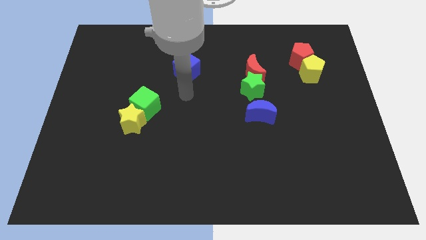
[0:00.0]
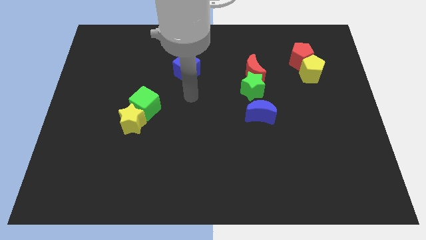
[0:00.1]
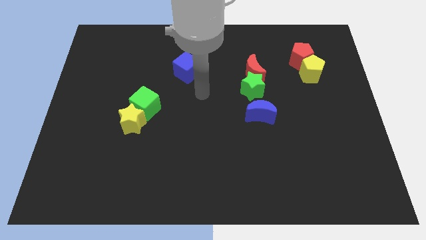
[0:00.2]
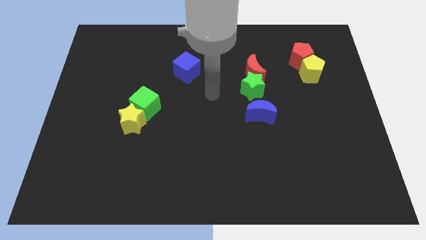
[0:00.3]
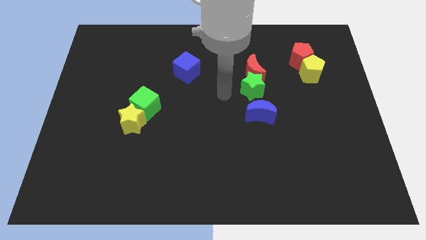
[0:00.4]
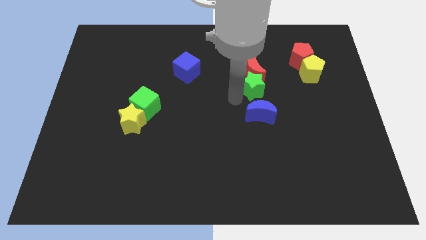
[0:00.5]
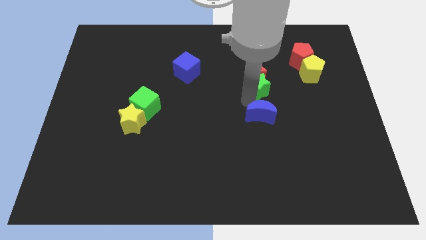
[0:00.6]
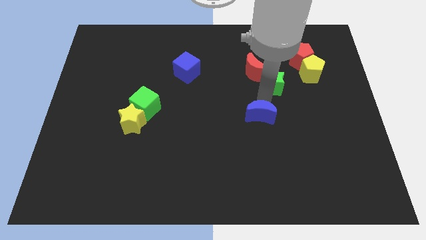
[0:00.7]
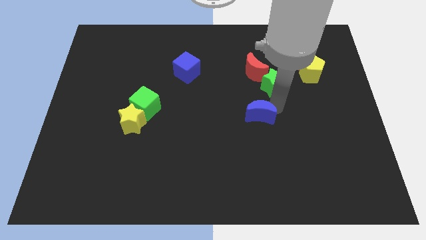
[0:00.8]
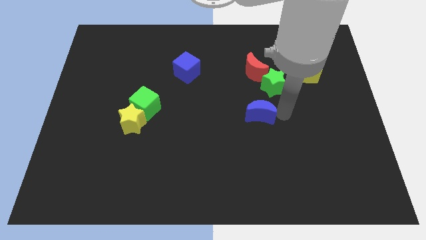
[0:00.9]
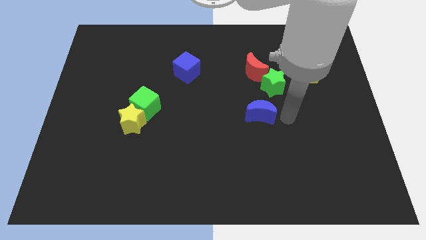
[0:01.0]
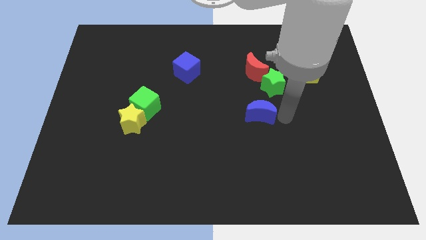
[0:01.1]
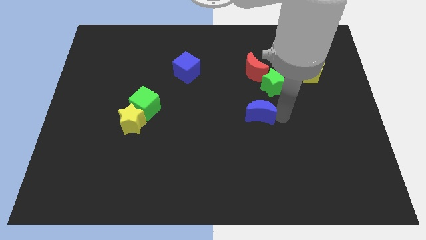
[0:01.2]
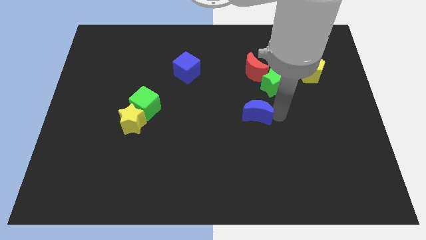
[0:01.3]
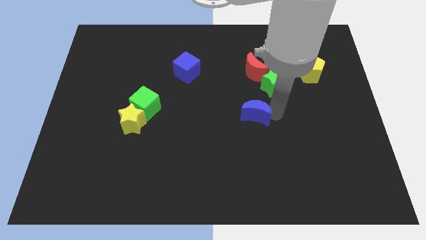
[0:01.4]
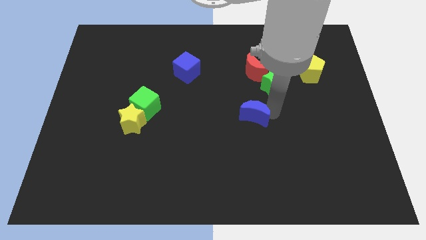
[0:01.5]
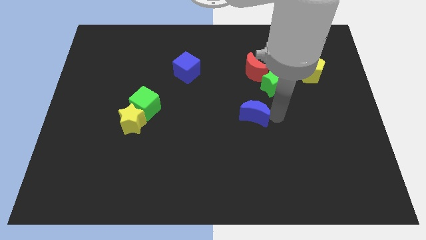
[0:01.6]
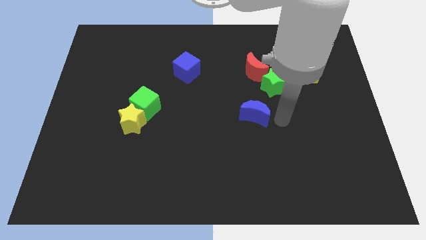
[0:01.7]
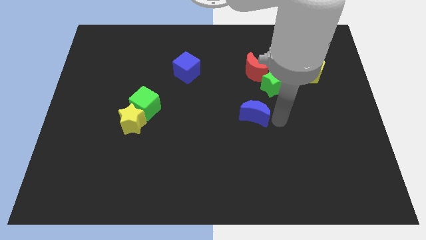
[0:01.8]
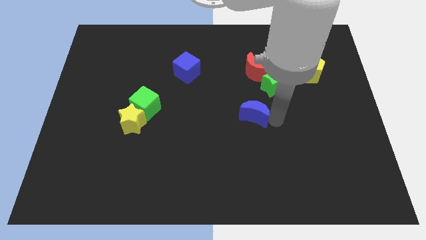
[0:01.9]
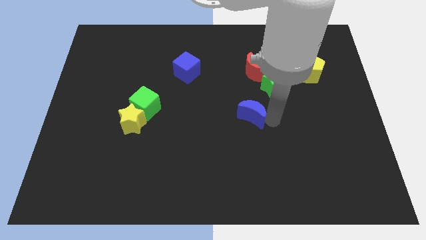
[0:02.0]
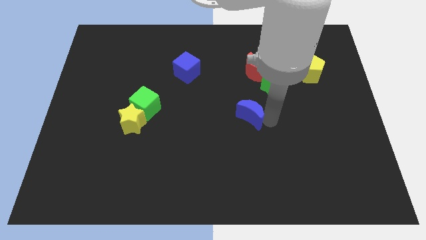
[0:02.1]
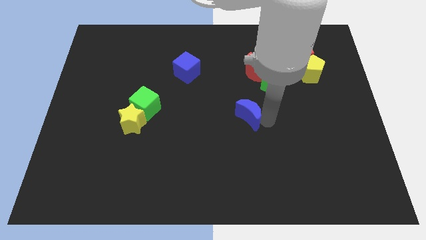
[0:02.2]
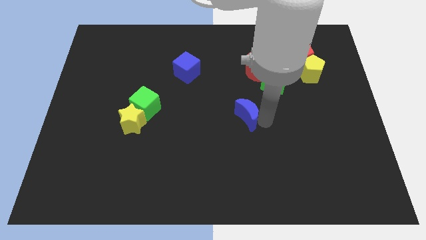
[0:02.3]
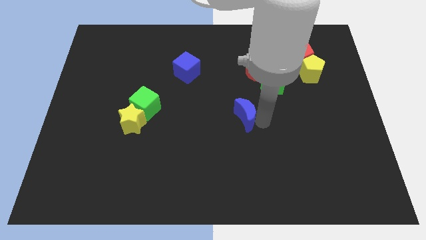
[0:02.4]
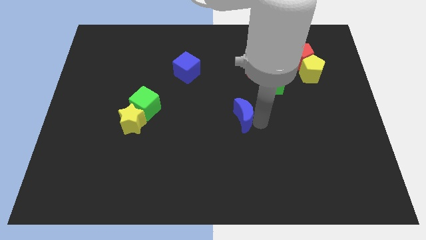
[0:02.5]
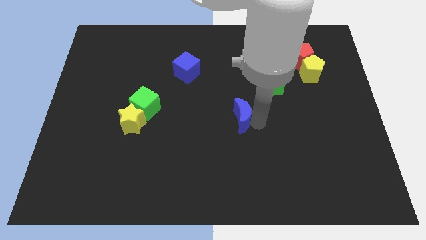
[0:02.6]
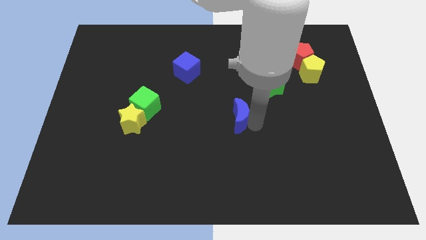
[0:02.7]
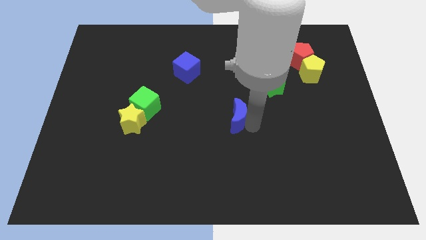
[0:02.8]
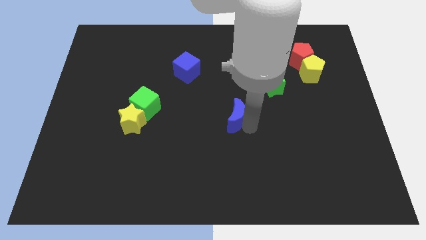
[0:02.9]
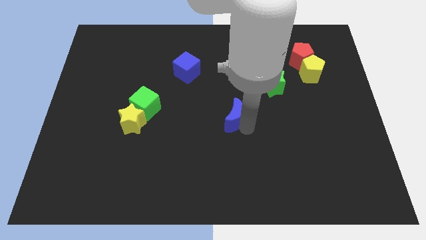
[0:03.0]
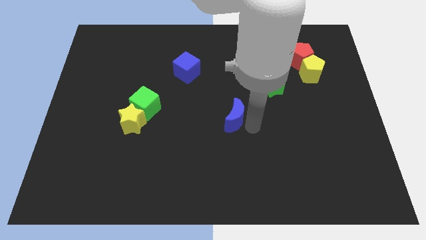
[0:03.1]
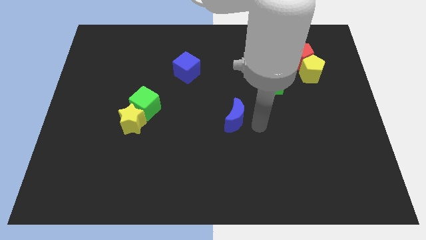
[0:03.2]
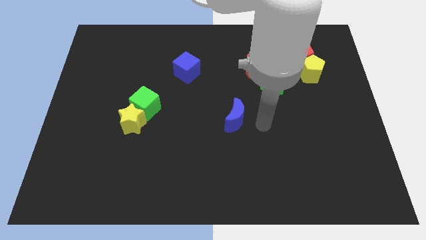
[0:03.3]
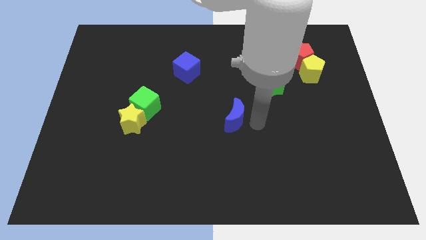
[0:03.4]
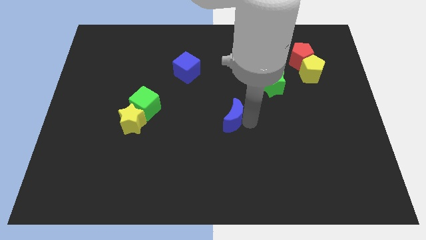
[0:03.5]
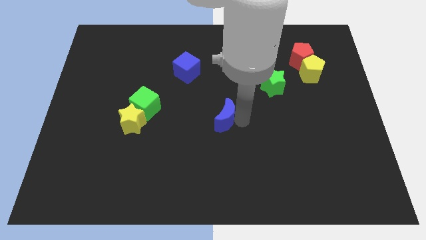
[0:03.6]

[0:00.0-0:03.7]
move the blue moon to the left a little

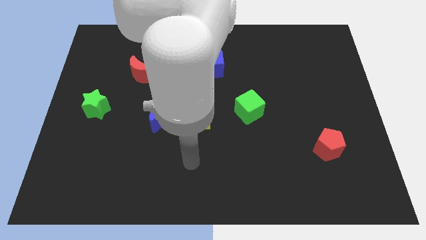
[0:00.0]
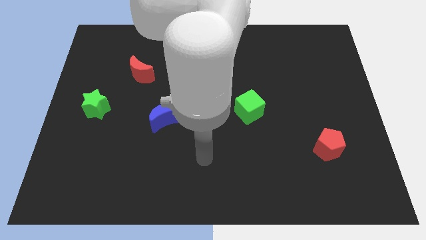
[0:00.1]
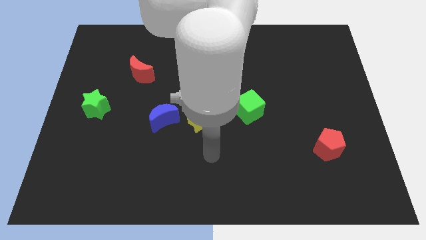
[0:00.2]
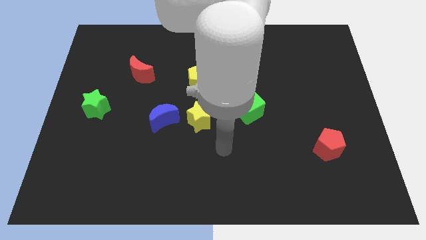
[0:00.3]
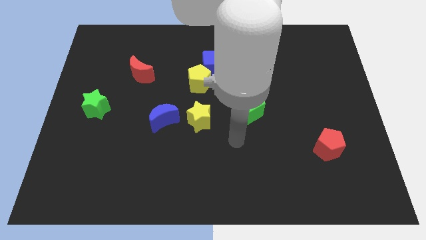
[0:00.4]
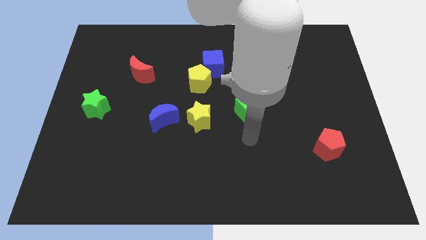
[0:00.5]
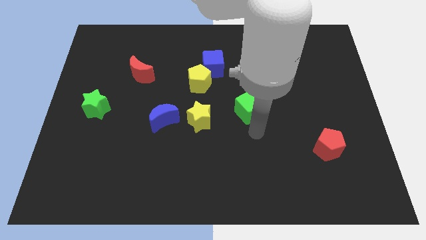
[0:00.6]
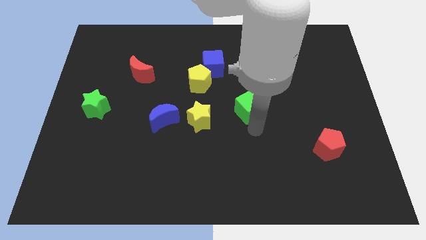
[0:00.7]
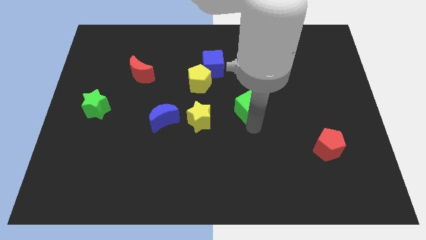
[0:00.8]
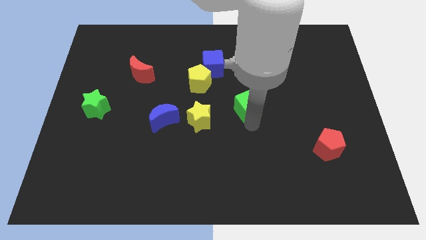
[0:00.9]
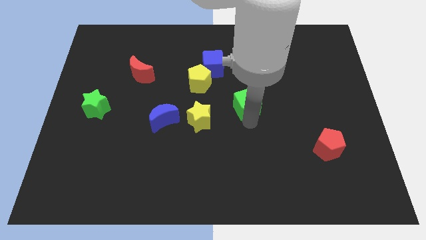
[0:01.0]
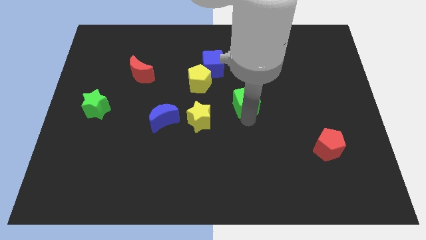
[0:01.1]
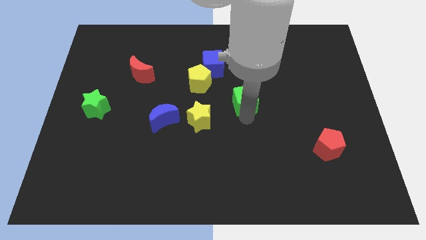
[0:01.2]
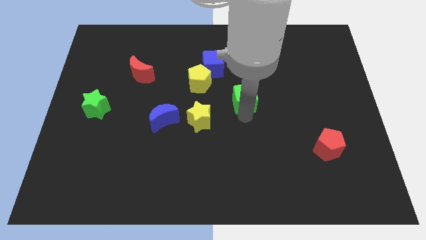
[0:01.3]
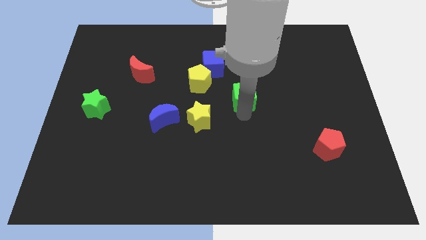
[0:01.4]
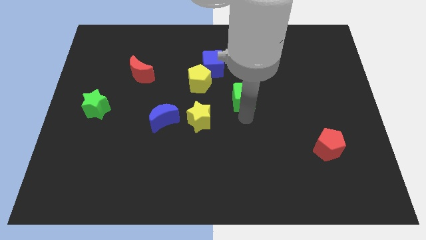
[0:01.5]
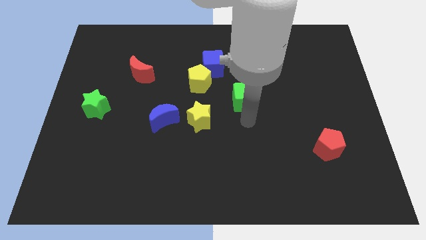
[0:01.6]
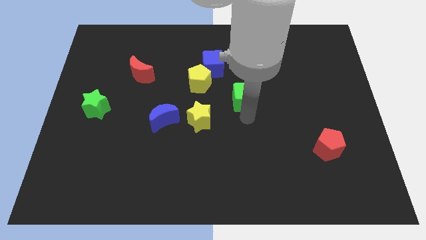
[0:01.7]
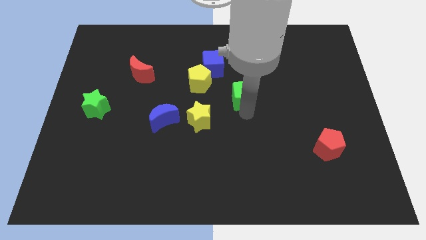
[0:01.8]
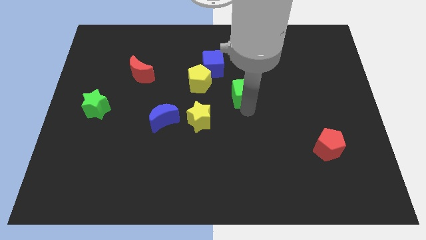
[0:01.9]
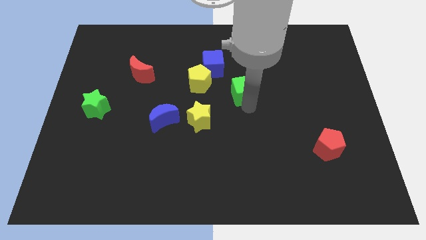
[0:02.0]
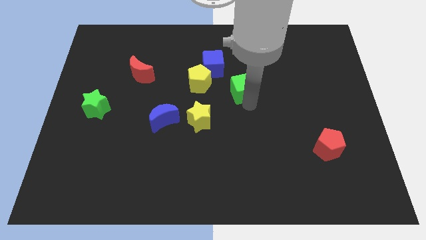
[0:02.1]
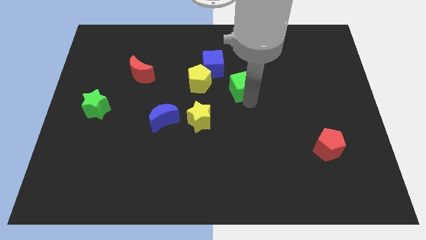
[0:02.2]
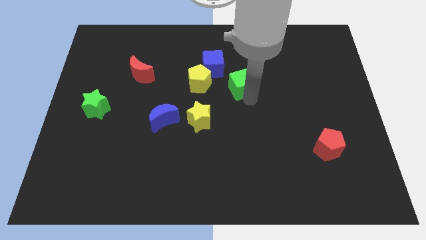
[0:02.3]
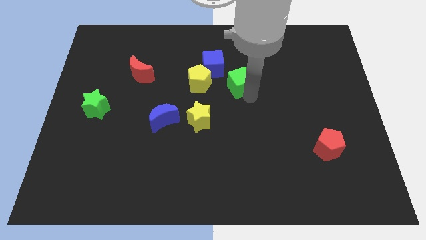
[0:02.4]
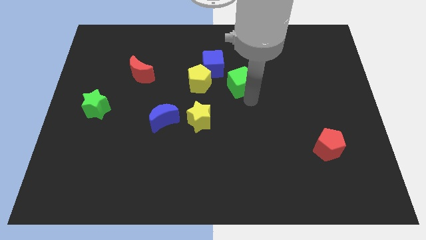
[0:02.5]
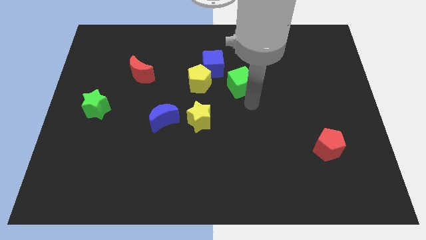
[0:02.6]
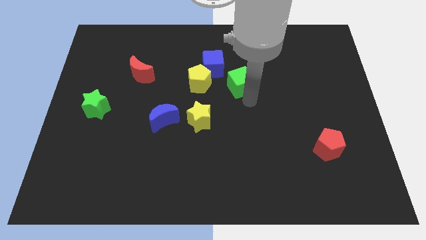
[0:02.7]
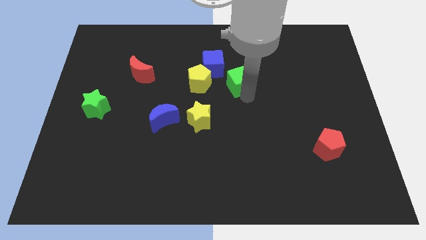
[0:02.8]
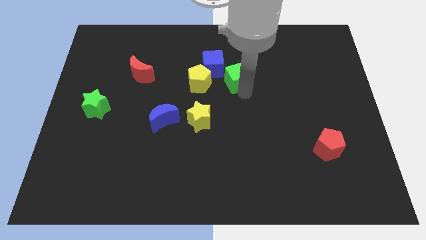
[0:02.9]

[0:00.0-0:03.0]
move the green cube a bit upwards and to the left diagonally

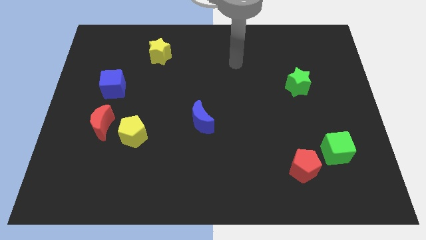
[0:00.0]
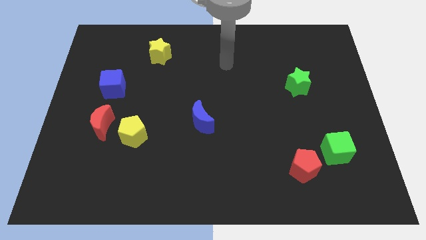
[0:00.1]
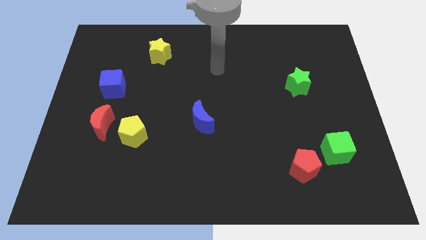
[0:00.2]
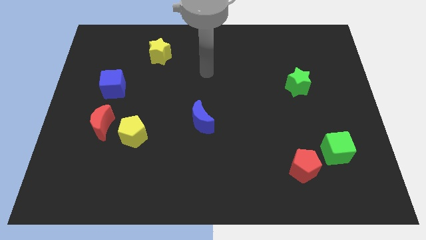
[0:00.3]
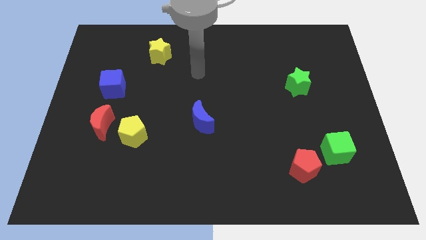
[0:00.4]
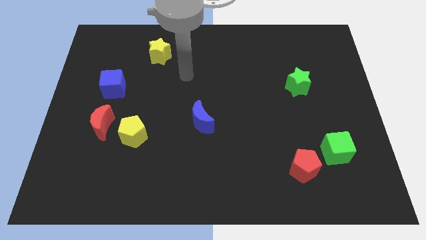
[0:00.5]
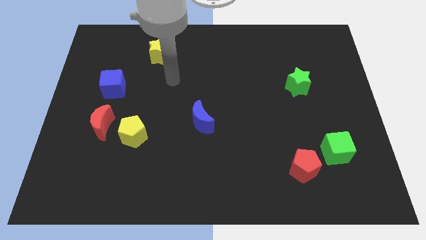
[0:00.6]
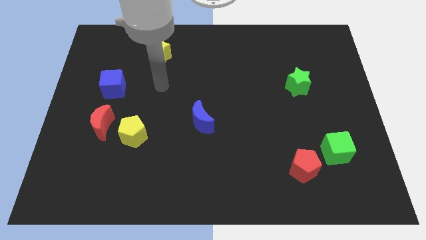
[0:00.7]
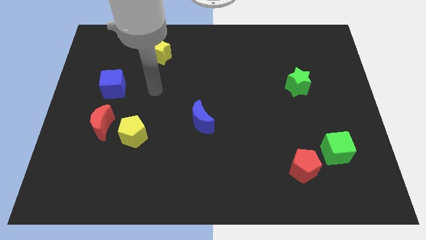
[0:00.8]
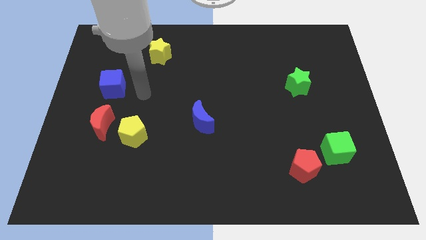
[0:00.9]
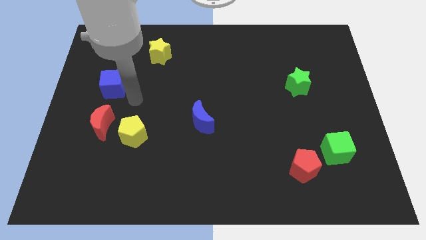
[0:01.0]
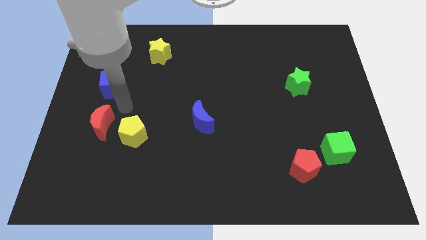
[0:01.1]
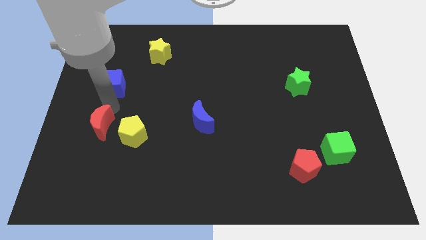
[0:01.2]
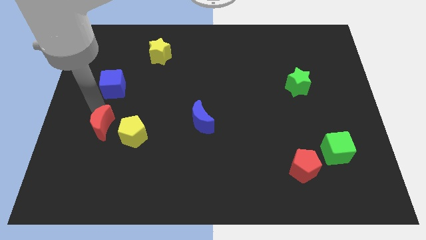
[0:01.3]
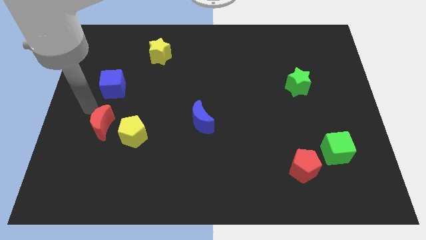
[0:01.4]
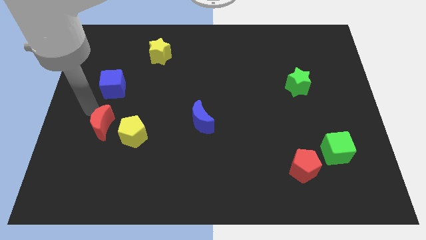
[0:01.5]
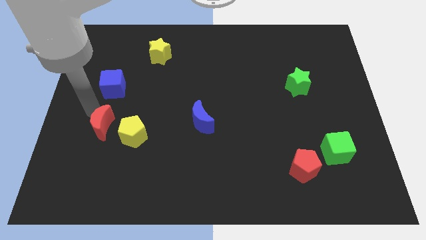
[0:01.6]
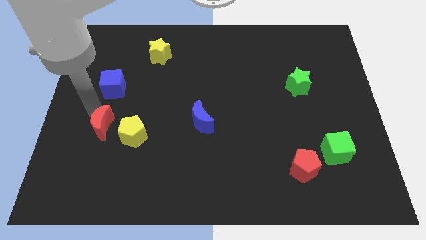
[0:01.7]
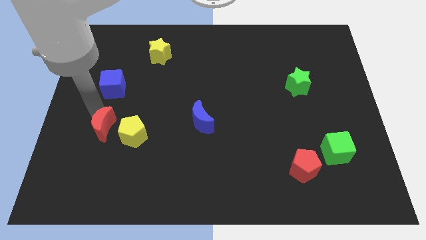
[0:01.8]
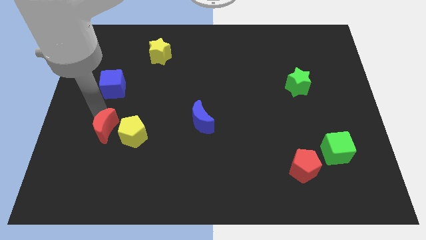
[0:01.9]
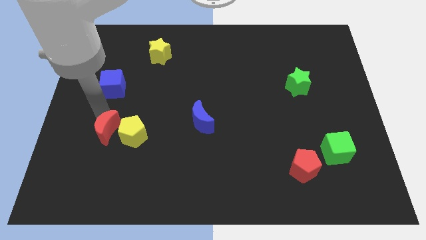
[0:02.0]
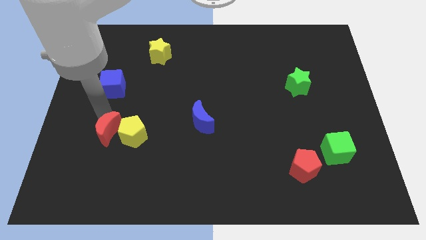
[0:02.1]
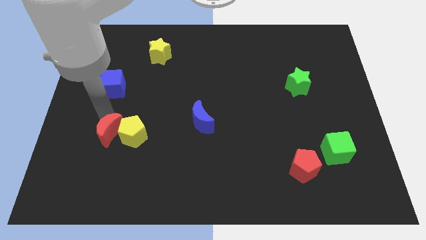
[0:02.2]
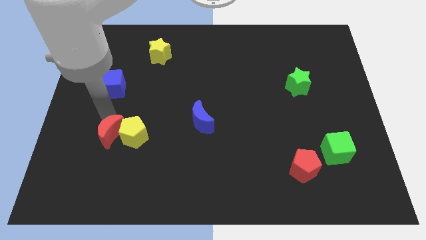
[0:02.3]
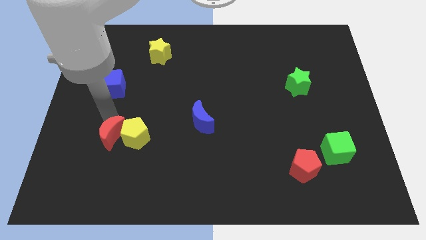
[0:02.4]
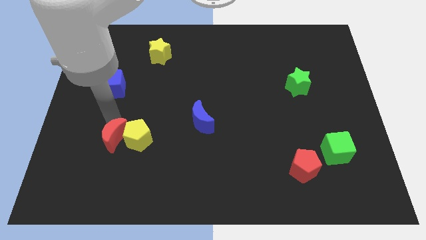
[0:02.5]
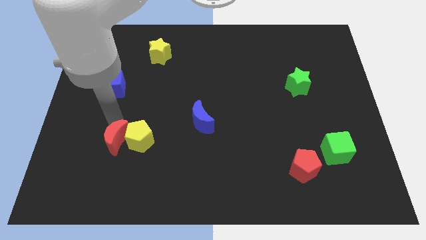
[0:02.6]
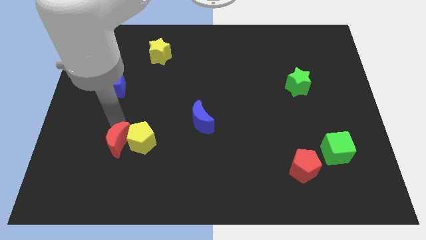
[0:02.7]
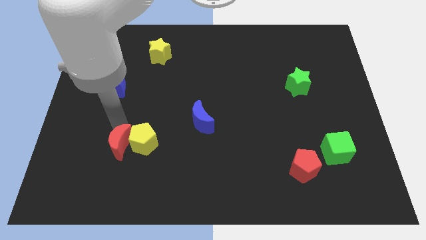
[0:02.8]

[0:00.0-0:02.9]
move the red moon downwards and right diagonally a little bit
